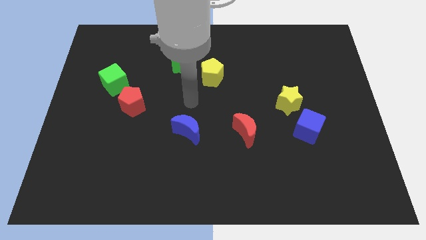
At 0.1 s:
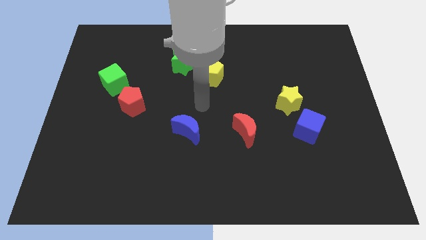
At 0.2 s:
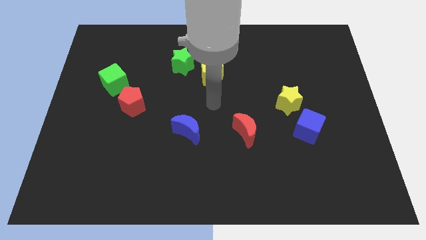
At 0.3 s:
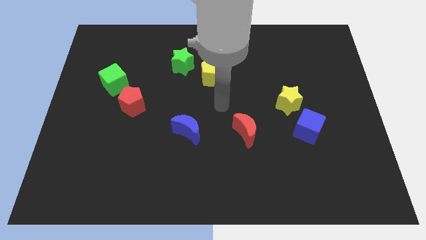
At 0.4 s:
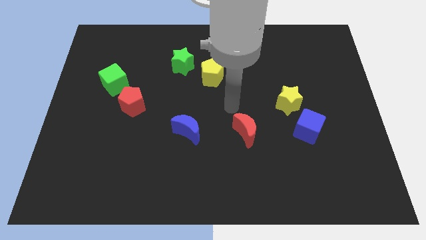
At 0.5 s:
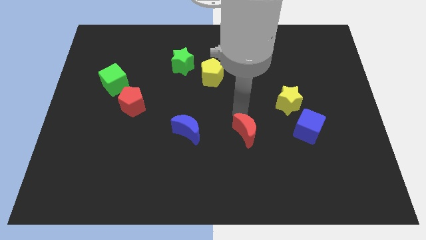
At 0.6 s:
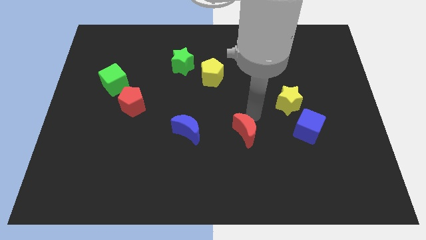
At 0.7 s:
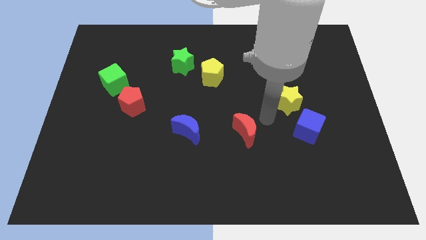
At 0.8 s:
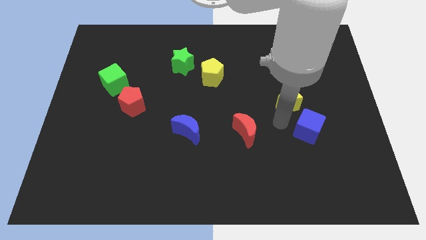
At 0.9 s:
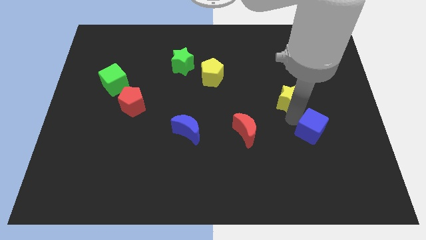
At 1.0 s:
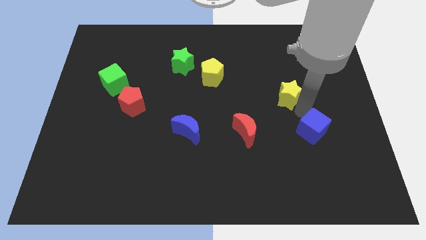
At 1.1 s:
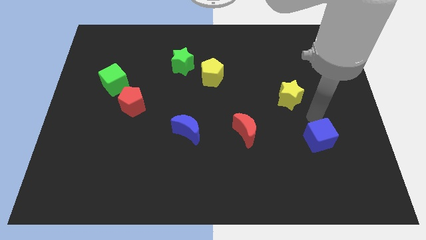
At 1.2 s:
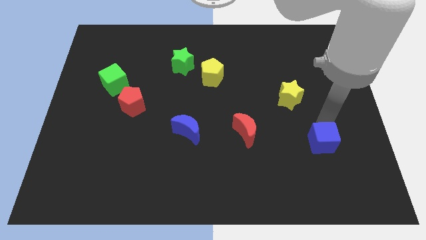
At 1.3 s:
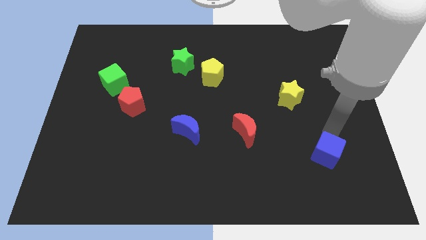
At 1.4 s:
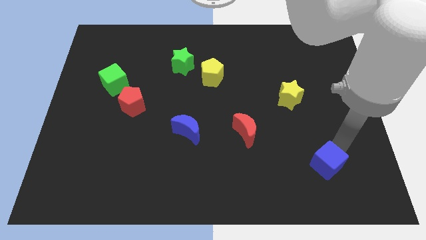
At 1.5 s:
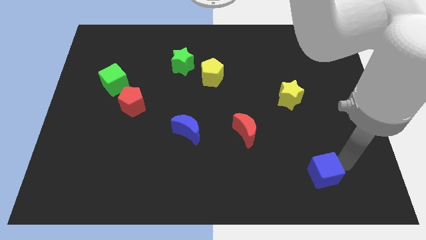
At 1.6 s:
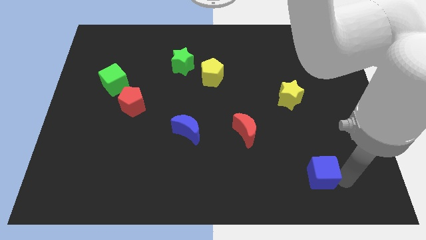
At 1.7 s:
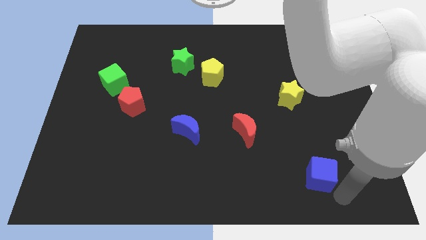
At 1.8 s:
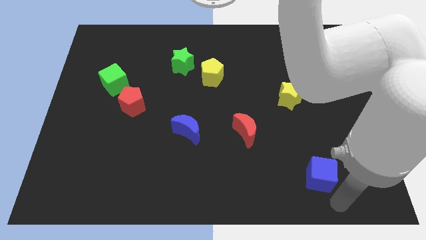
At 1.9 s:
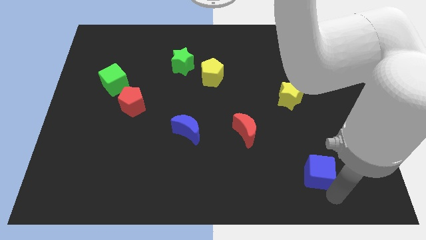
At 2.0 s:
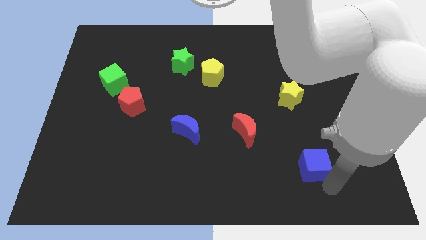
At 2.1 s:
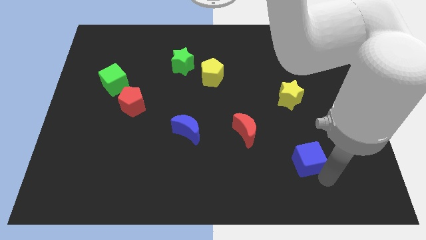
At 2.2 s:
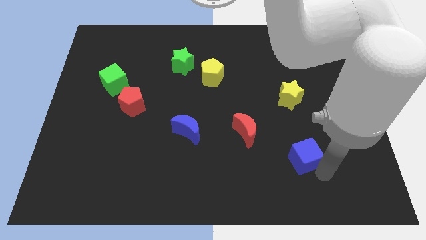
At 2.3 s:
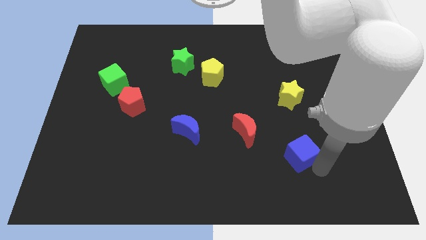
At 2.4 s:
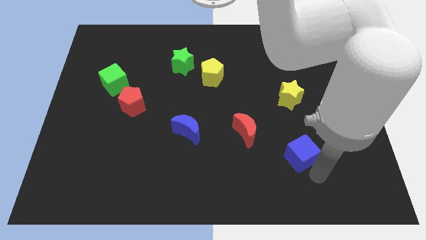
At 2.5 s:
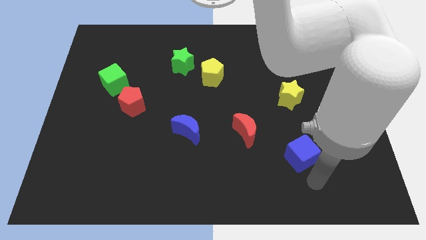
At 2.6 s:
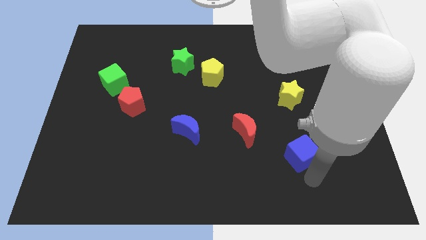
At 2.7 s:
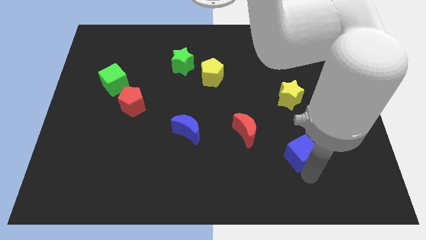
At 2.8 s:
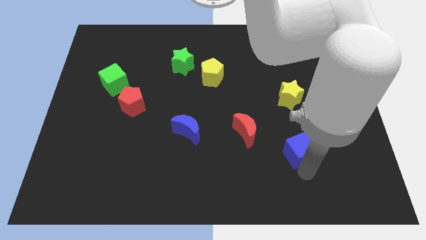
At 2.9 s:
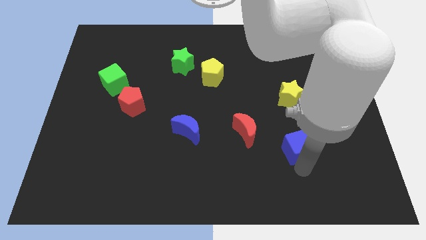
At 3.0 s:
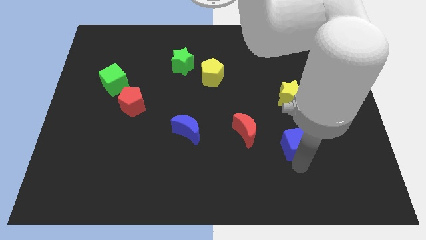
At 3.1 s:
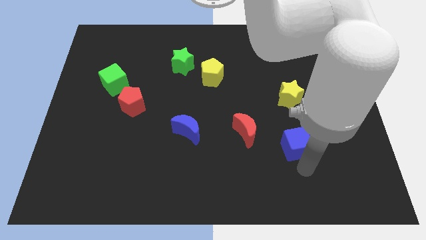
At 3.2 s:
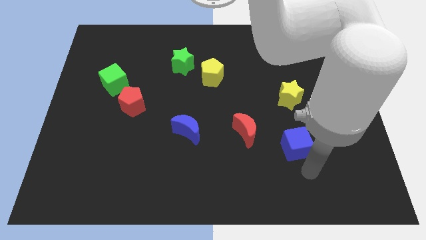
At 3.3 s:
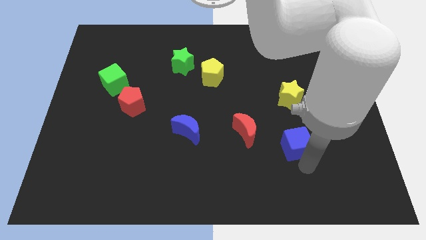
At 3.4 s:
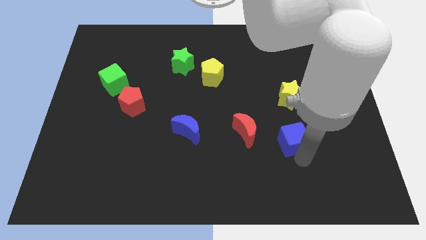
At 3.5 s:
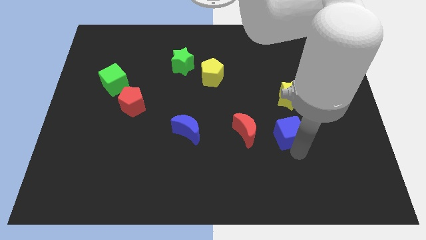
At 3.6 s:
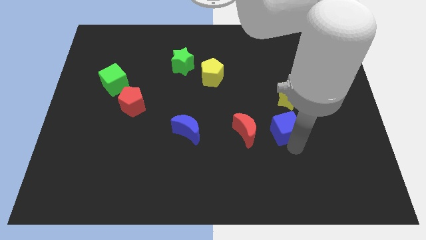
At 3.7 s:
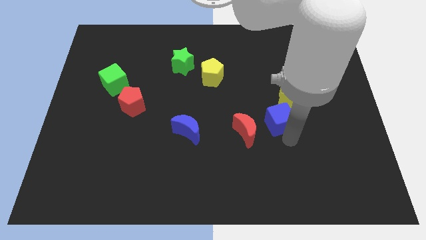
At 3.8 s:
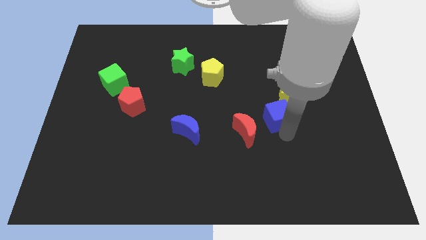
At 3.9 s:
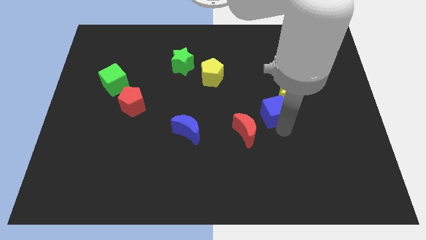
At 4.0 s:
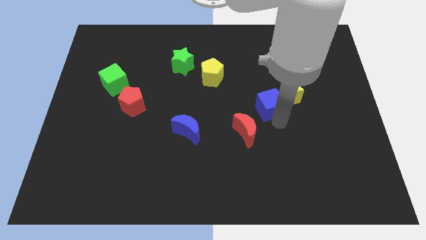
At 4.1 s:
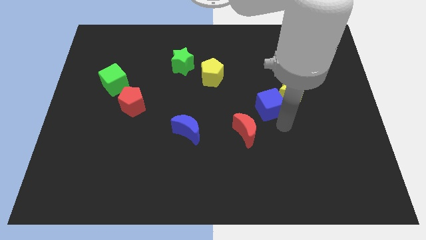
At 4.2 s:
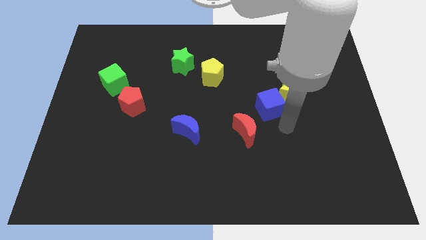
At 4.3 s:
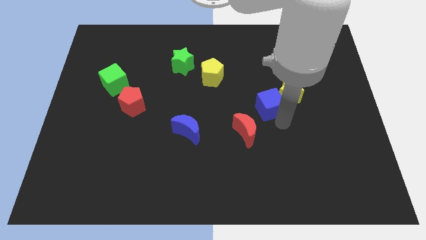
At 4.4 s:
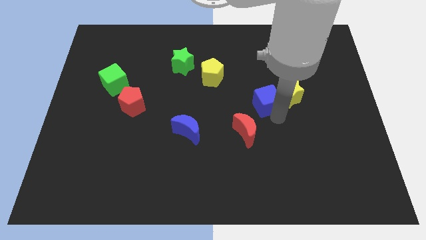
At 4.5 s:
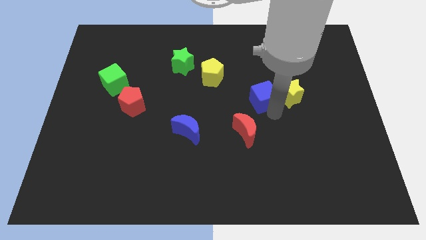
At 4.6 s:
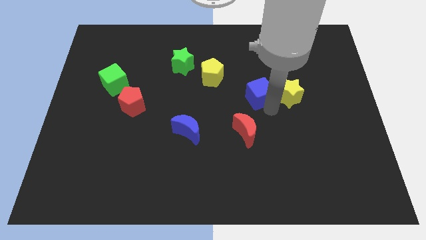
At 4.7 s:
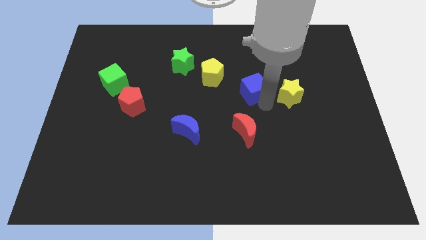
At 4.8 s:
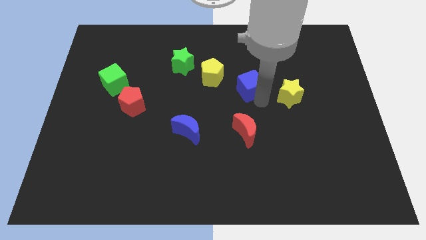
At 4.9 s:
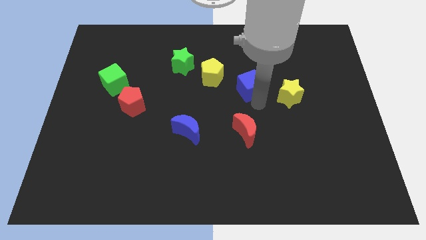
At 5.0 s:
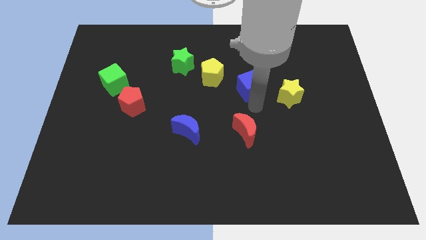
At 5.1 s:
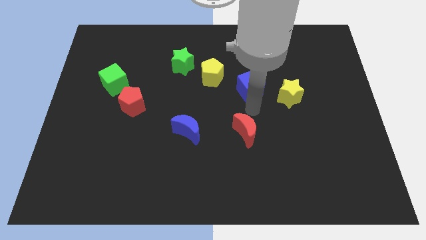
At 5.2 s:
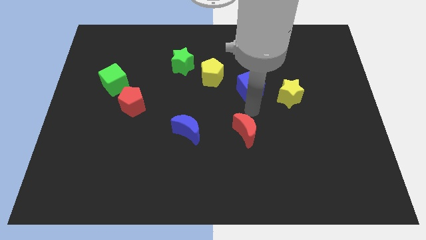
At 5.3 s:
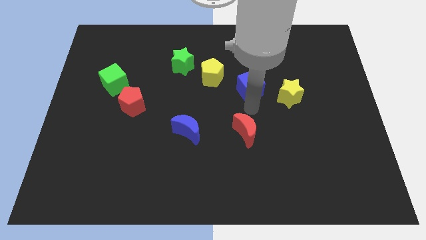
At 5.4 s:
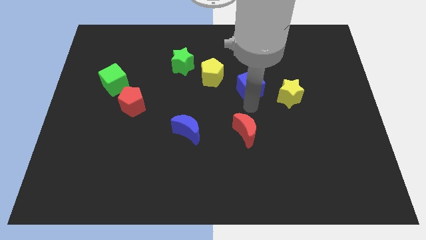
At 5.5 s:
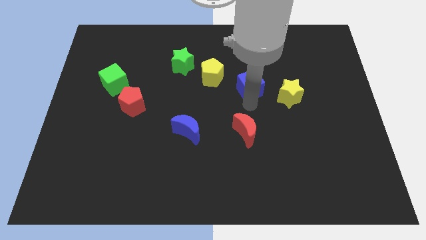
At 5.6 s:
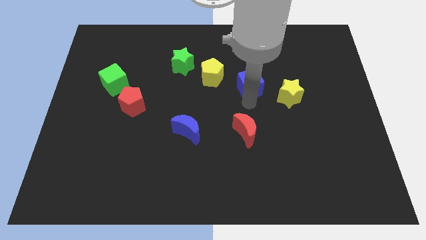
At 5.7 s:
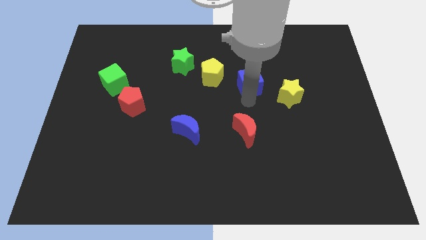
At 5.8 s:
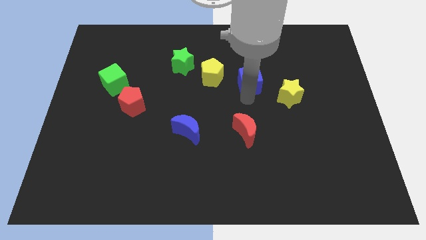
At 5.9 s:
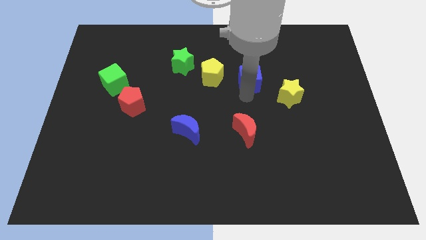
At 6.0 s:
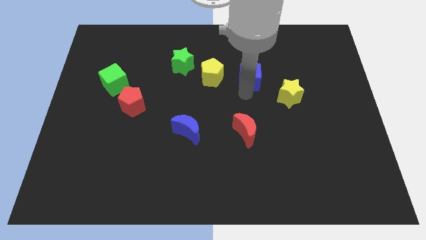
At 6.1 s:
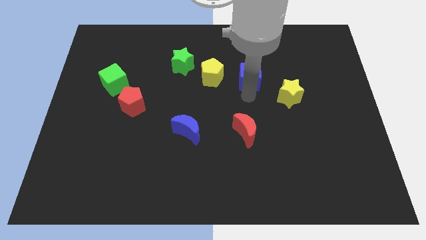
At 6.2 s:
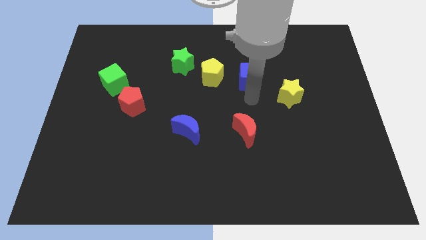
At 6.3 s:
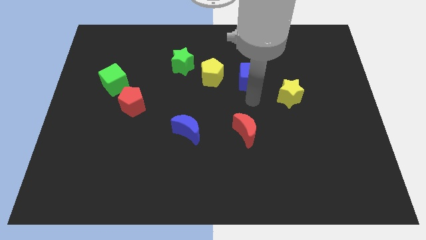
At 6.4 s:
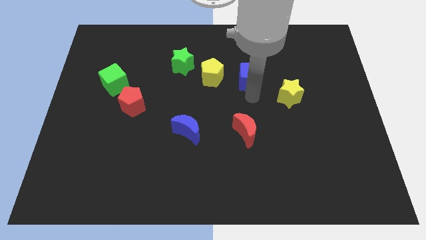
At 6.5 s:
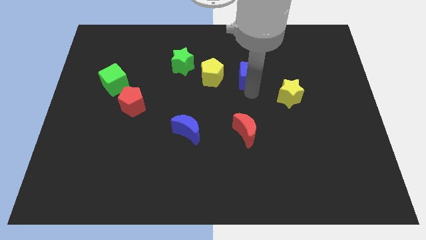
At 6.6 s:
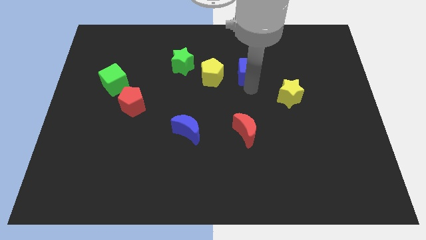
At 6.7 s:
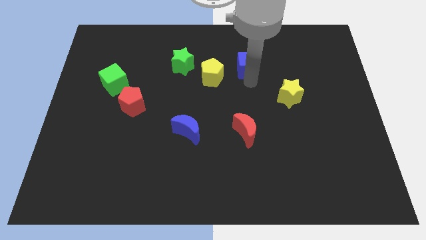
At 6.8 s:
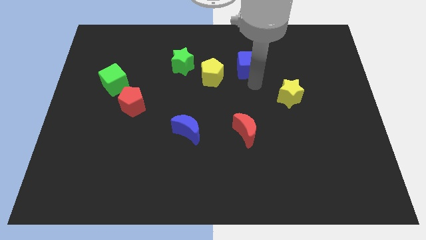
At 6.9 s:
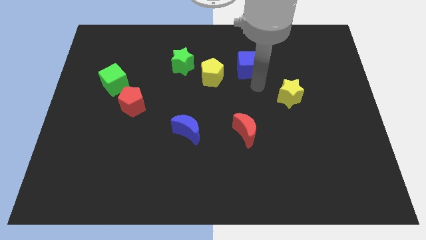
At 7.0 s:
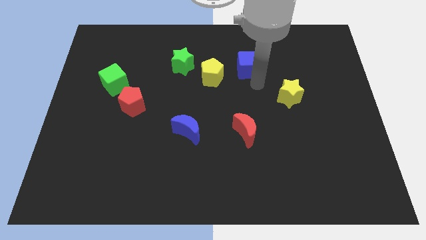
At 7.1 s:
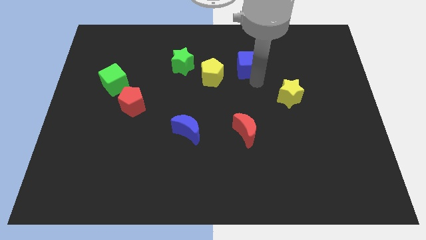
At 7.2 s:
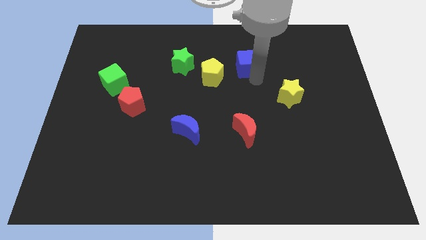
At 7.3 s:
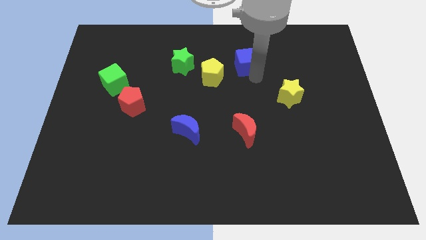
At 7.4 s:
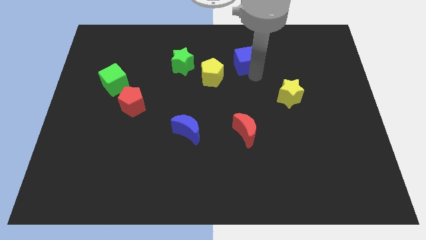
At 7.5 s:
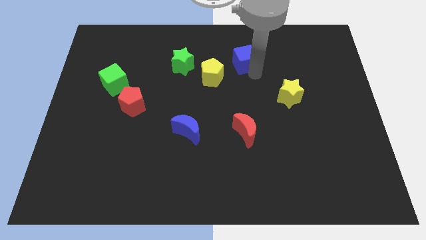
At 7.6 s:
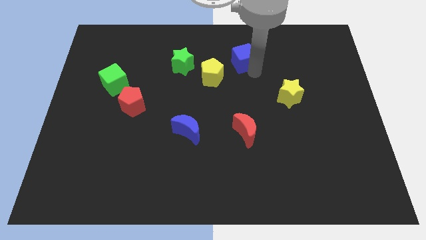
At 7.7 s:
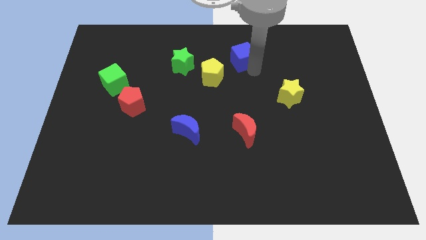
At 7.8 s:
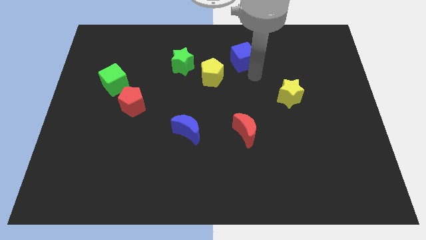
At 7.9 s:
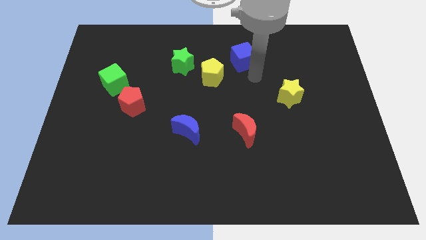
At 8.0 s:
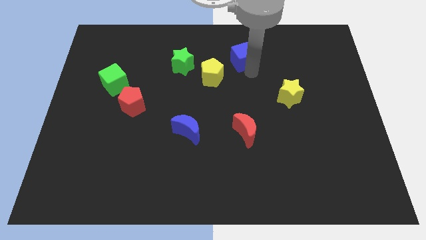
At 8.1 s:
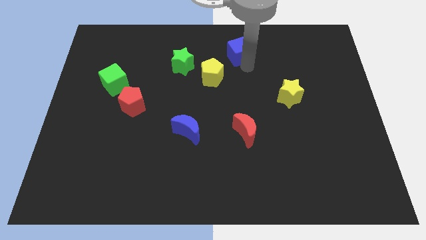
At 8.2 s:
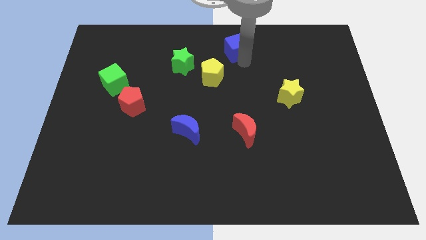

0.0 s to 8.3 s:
put the blue cube to the top side

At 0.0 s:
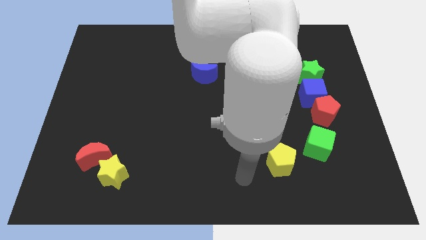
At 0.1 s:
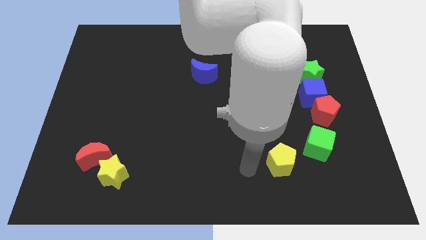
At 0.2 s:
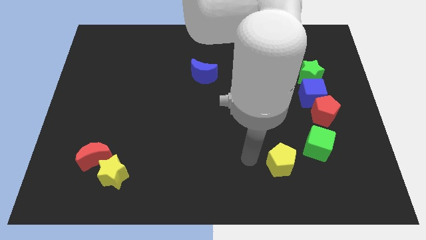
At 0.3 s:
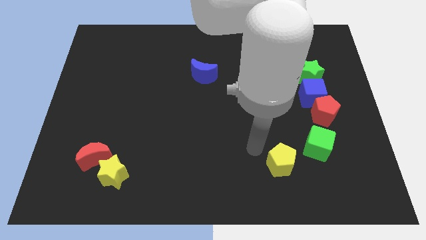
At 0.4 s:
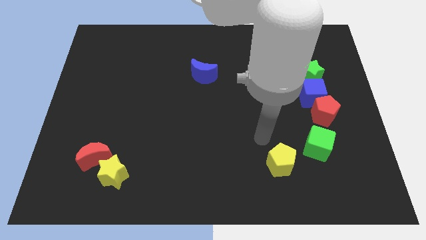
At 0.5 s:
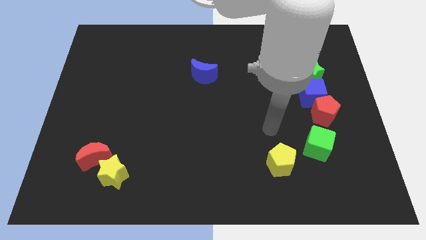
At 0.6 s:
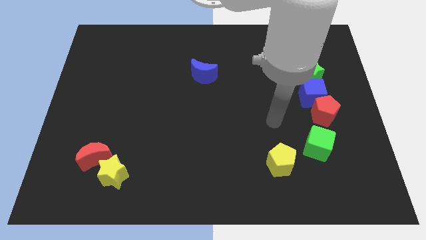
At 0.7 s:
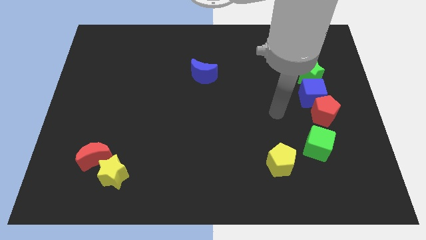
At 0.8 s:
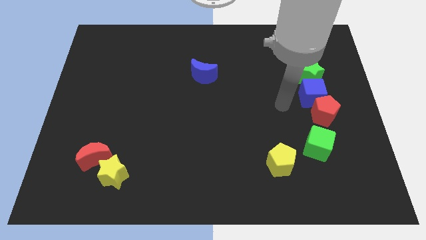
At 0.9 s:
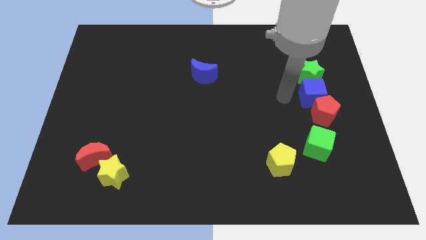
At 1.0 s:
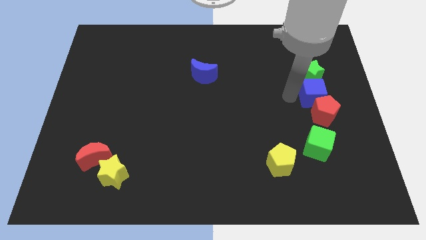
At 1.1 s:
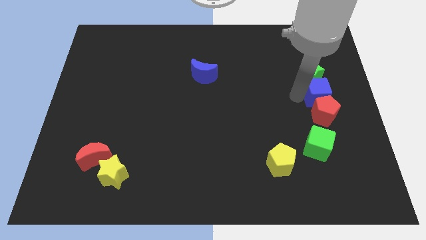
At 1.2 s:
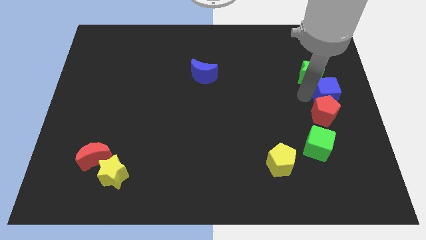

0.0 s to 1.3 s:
move the blue cube to the center right
